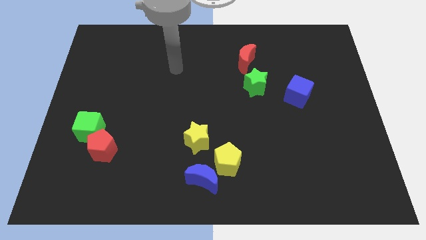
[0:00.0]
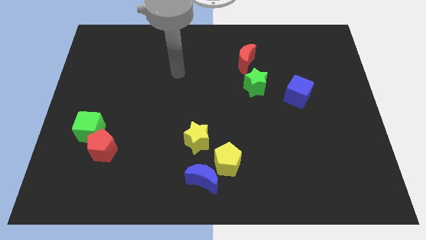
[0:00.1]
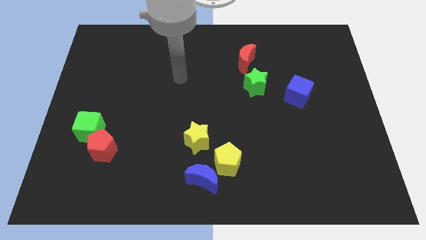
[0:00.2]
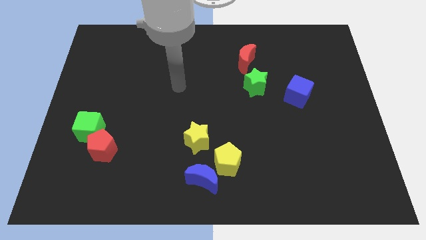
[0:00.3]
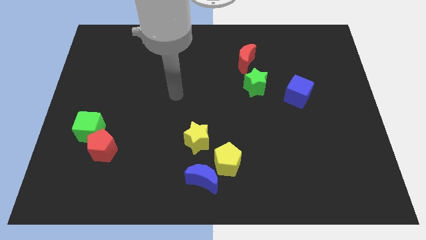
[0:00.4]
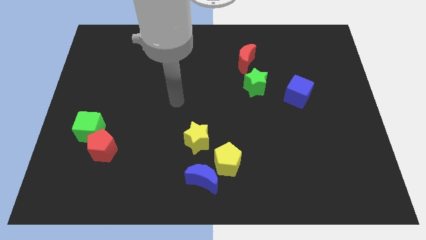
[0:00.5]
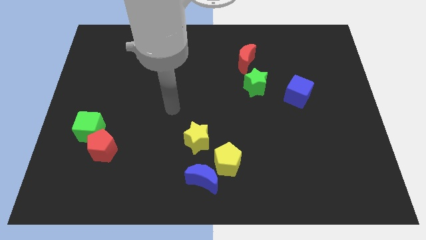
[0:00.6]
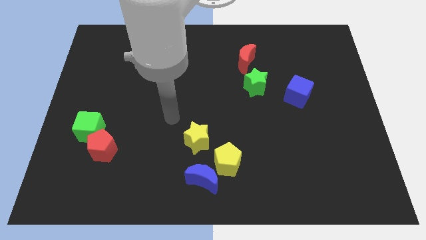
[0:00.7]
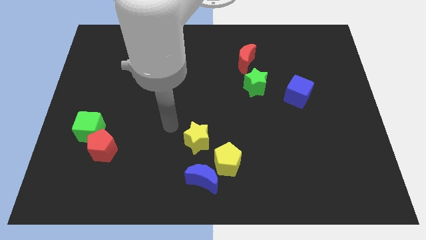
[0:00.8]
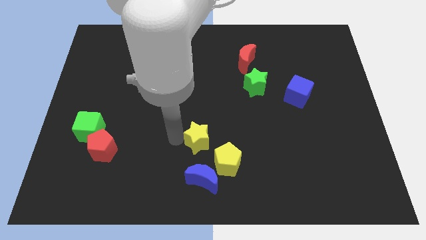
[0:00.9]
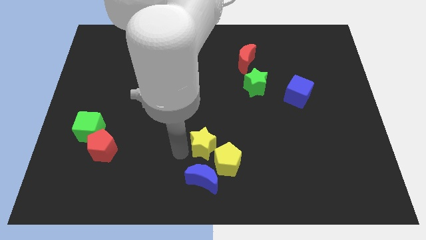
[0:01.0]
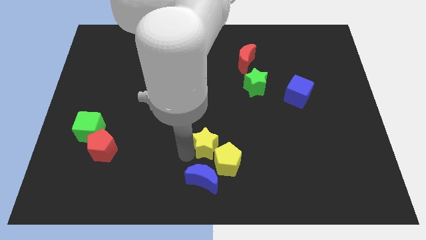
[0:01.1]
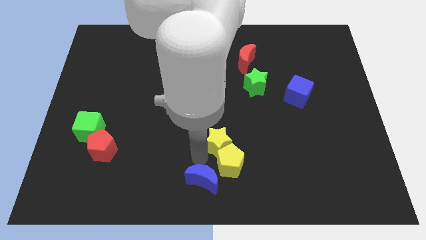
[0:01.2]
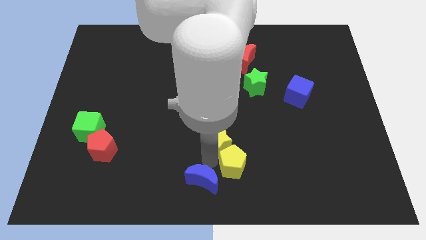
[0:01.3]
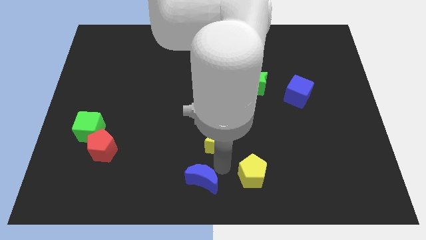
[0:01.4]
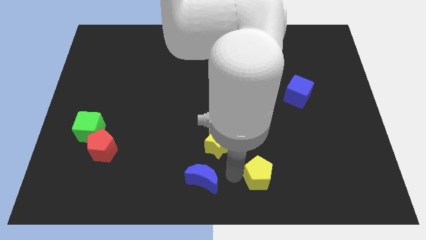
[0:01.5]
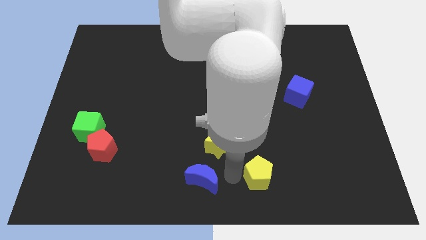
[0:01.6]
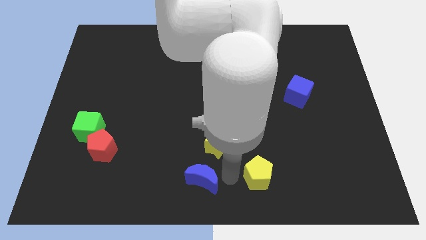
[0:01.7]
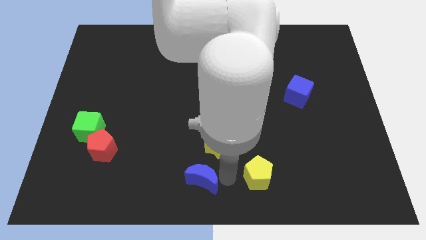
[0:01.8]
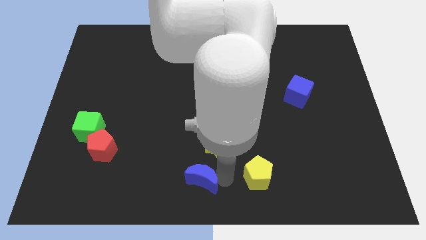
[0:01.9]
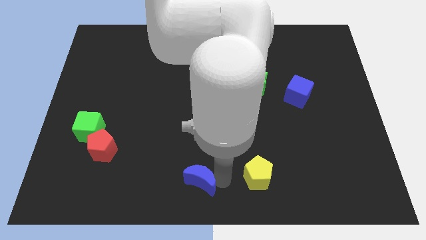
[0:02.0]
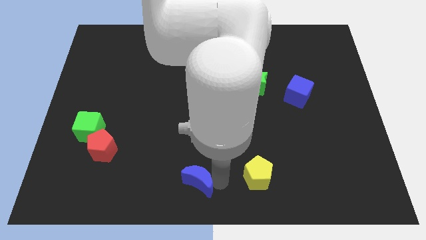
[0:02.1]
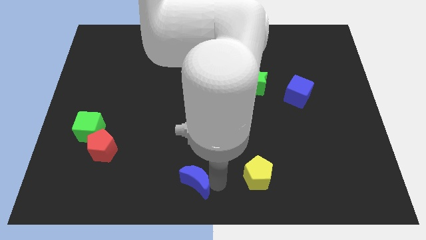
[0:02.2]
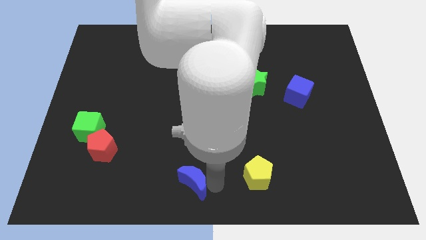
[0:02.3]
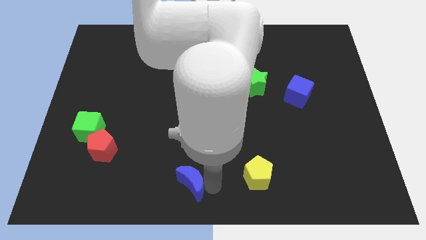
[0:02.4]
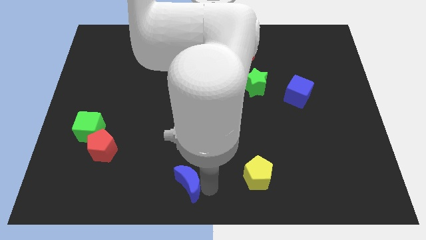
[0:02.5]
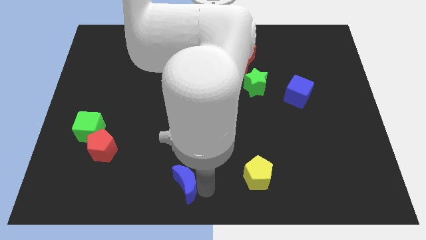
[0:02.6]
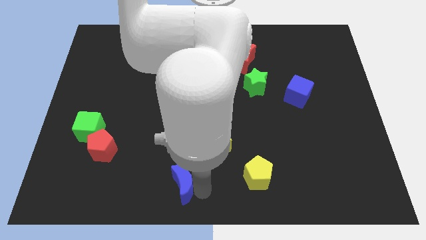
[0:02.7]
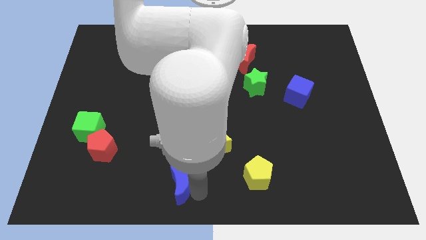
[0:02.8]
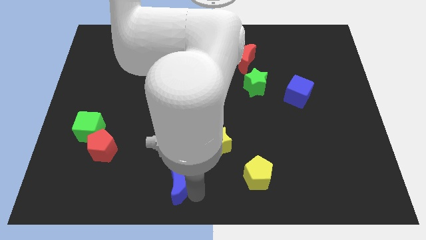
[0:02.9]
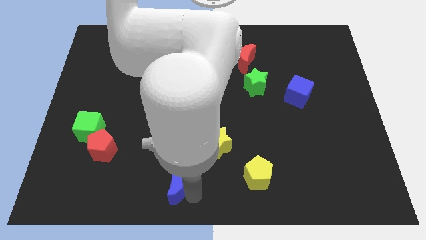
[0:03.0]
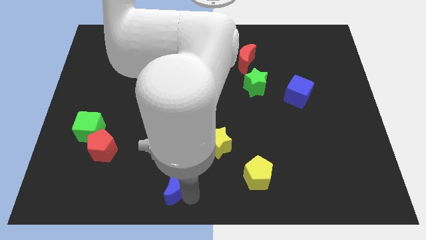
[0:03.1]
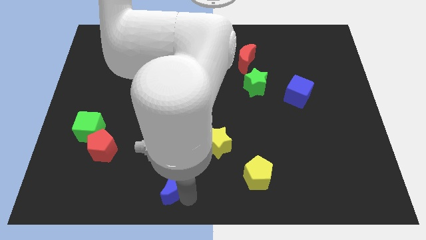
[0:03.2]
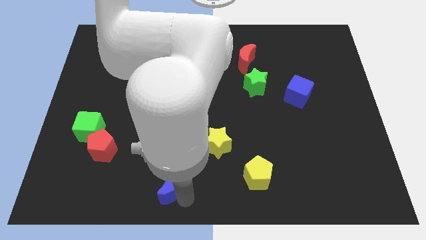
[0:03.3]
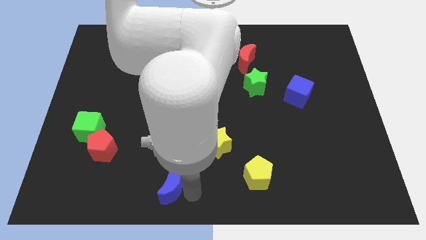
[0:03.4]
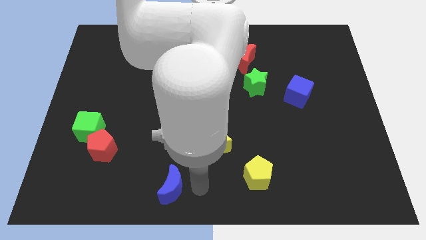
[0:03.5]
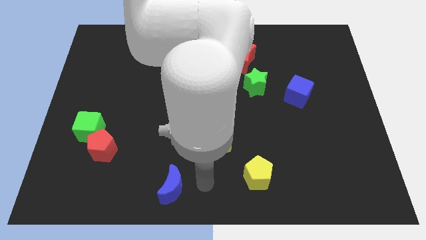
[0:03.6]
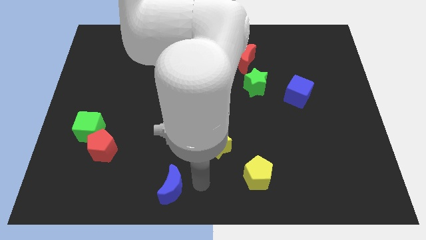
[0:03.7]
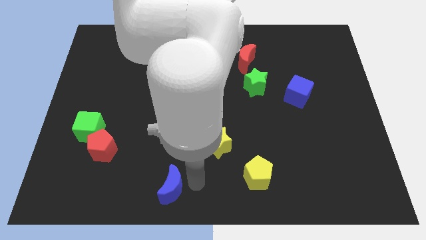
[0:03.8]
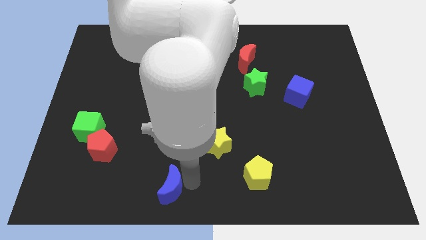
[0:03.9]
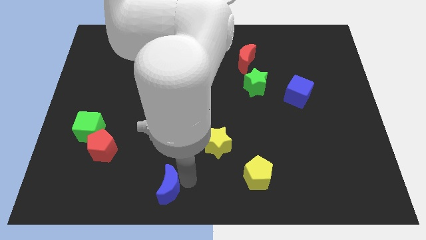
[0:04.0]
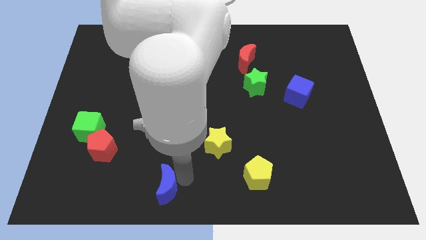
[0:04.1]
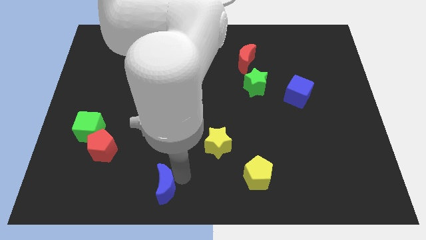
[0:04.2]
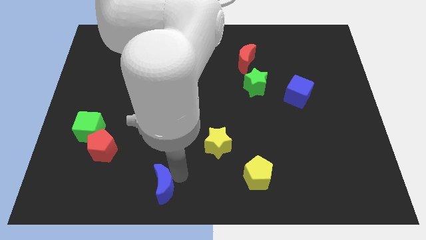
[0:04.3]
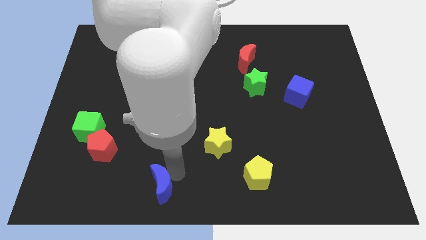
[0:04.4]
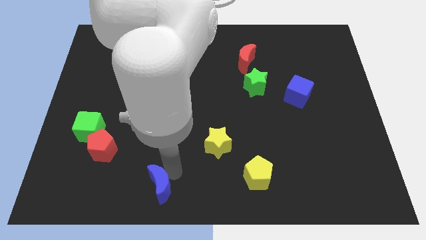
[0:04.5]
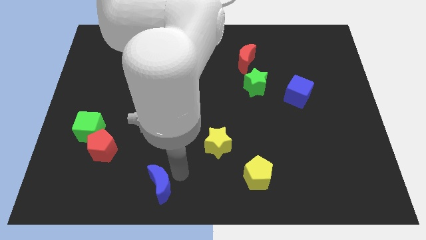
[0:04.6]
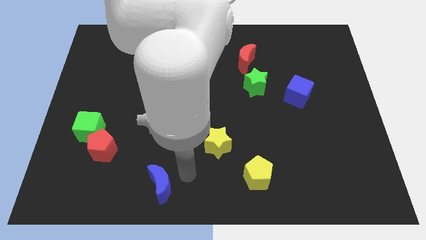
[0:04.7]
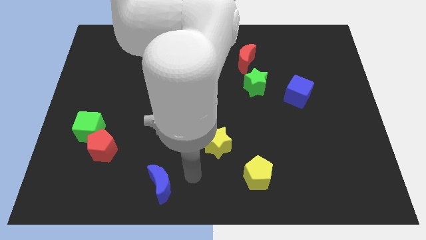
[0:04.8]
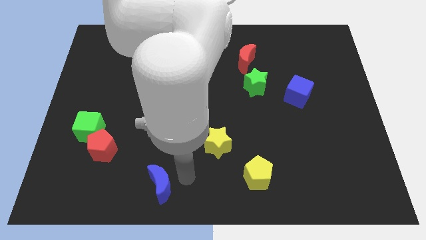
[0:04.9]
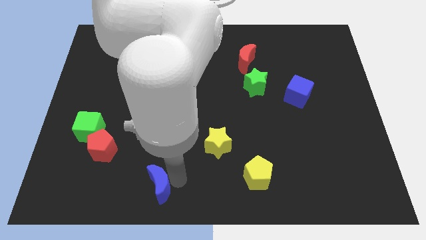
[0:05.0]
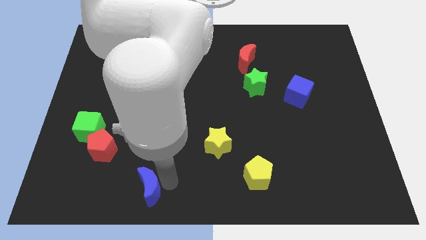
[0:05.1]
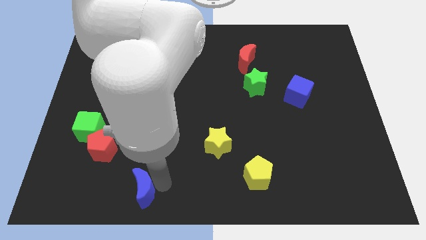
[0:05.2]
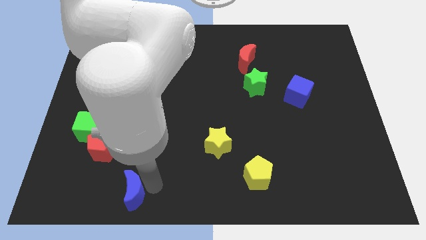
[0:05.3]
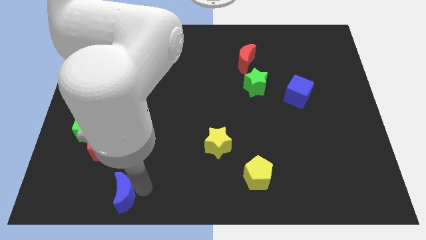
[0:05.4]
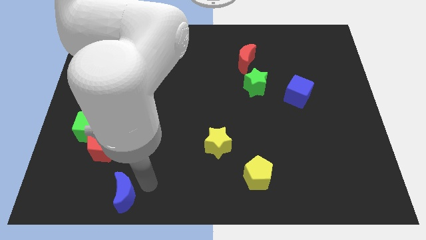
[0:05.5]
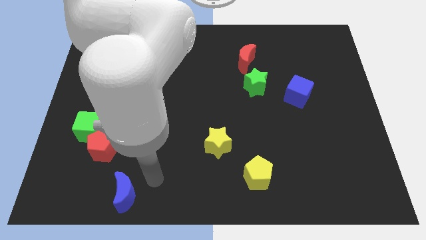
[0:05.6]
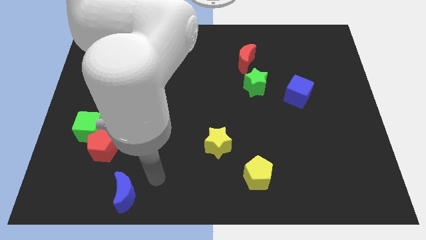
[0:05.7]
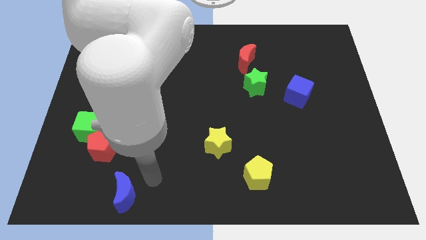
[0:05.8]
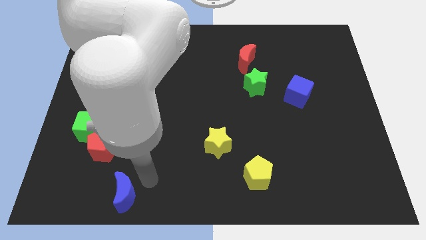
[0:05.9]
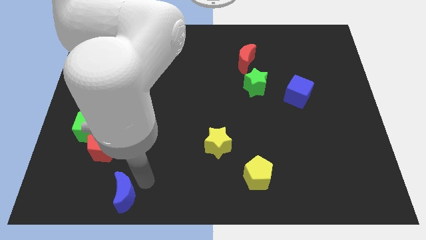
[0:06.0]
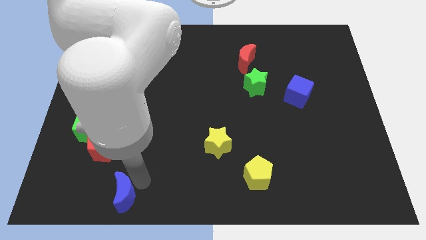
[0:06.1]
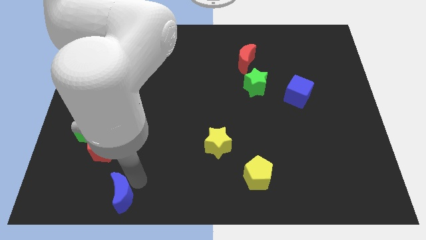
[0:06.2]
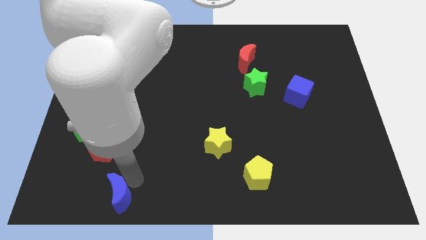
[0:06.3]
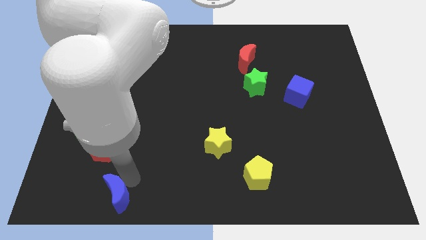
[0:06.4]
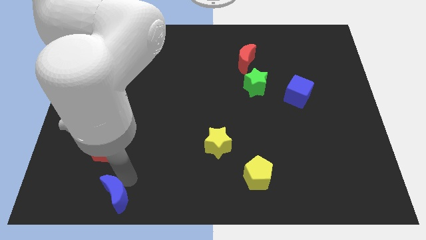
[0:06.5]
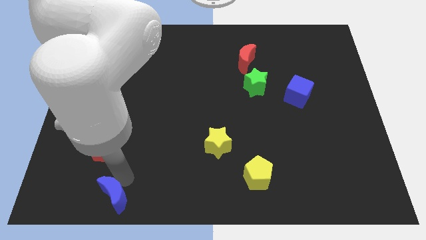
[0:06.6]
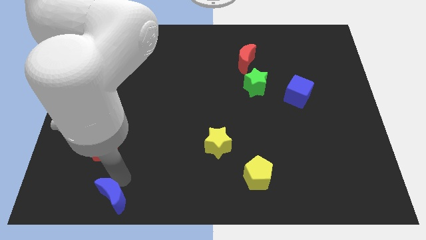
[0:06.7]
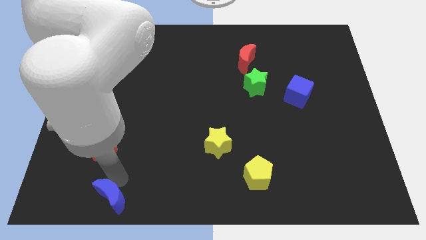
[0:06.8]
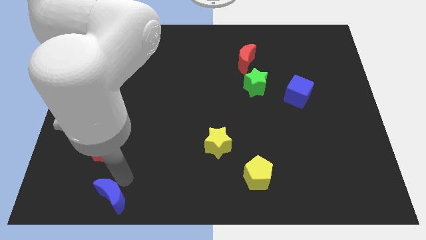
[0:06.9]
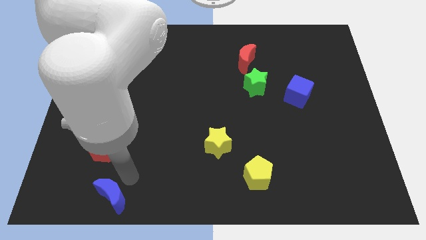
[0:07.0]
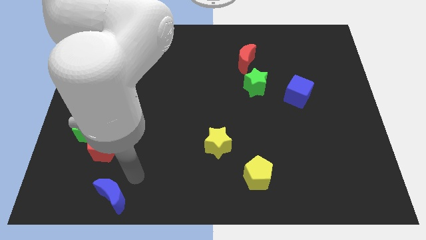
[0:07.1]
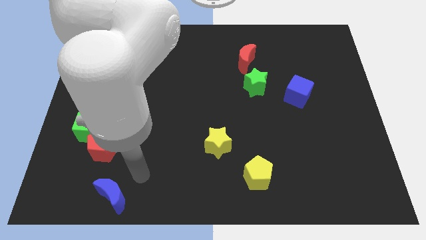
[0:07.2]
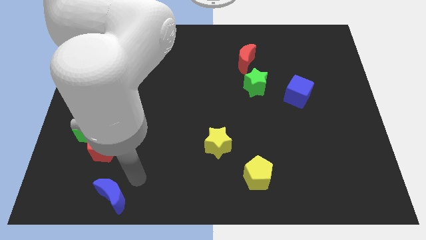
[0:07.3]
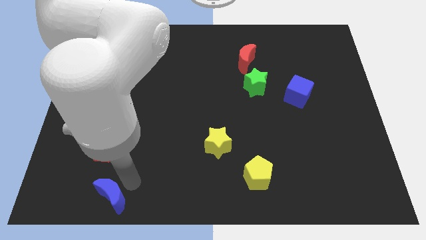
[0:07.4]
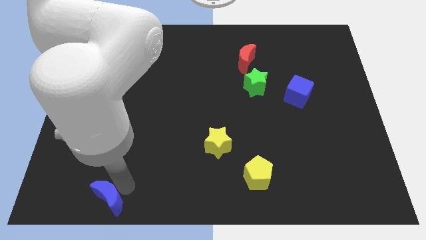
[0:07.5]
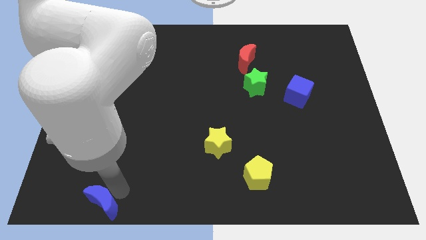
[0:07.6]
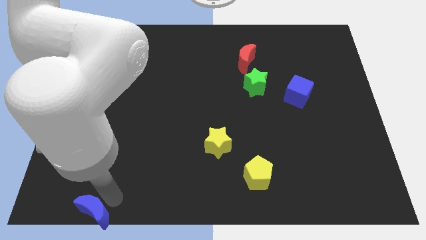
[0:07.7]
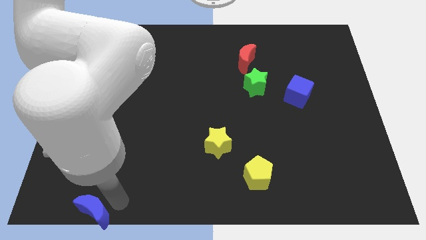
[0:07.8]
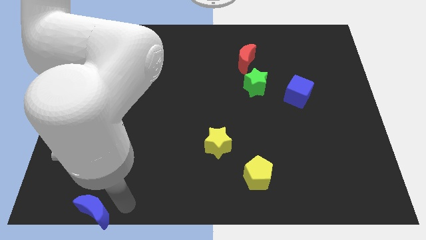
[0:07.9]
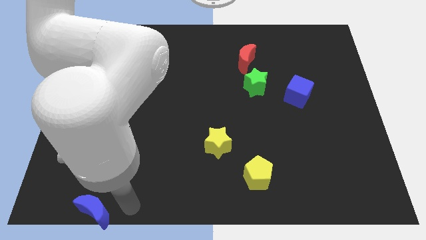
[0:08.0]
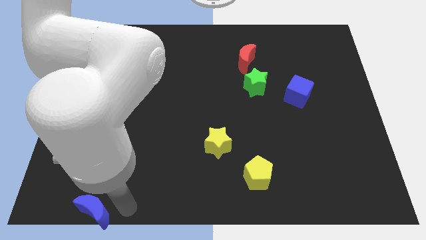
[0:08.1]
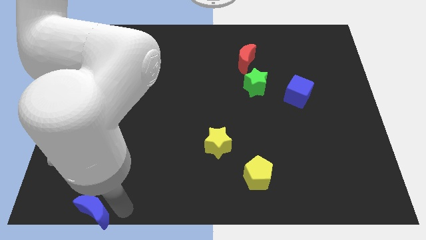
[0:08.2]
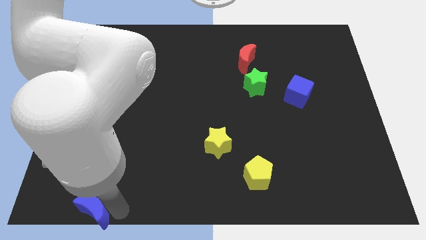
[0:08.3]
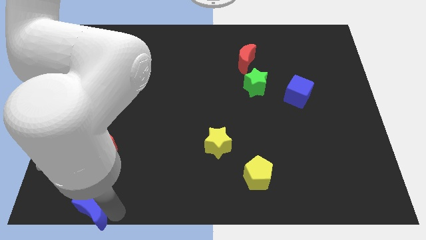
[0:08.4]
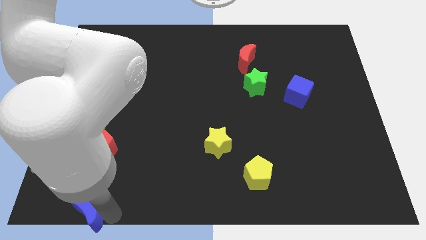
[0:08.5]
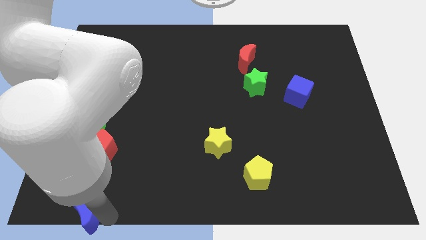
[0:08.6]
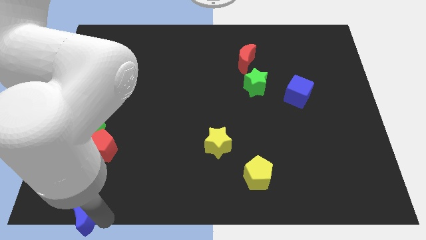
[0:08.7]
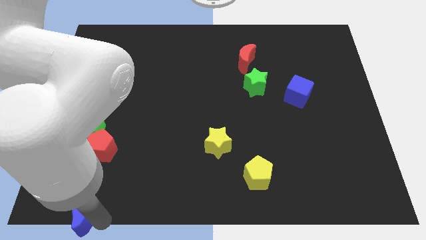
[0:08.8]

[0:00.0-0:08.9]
push the blue moon to the bottom left of the board
